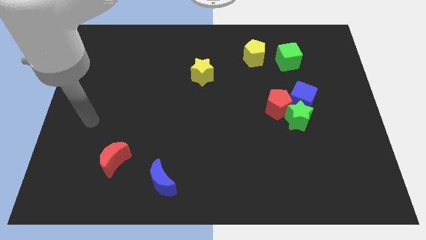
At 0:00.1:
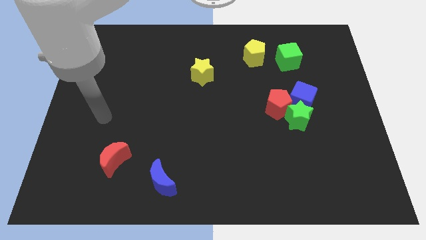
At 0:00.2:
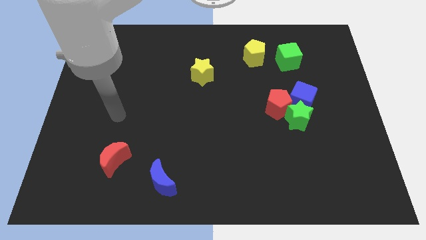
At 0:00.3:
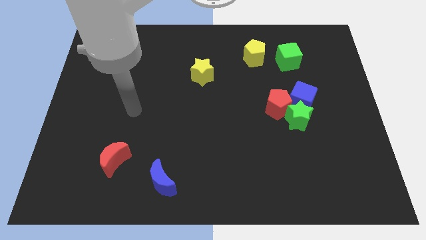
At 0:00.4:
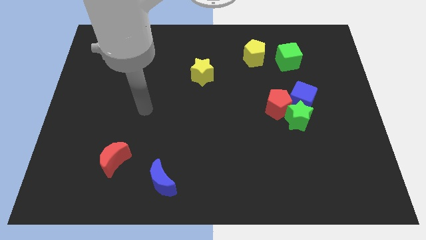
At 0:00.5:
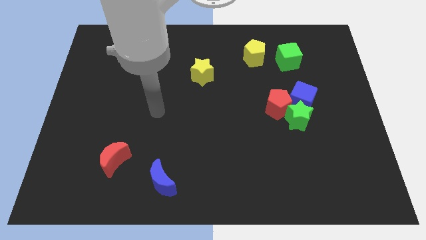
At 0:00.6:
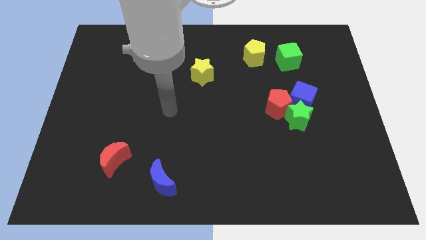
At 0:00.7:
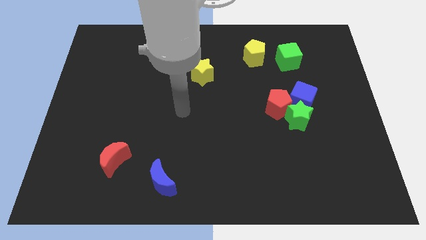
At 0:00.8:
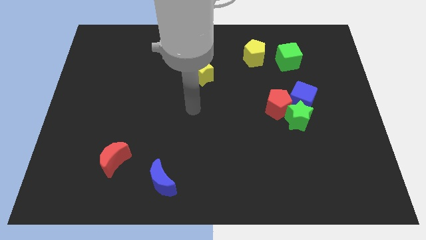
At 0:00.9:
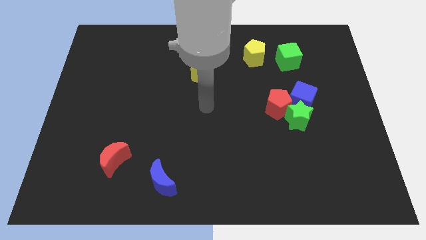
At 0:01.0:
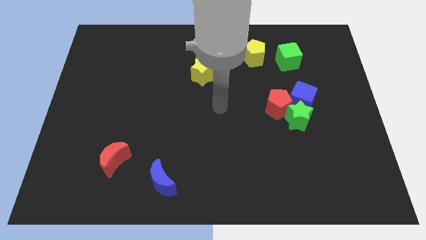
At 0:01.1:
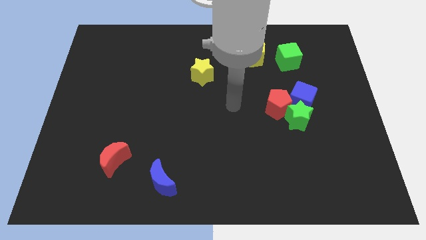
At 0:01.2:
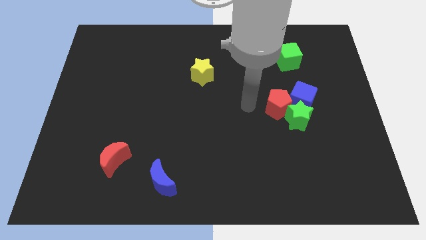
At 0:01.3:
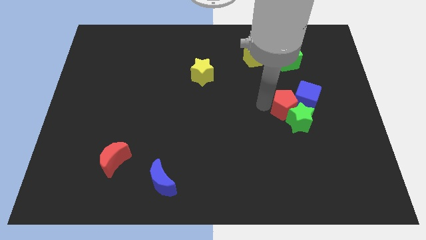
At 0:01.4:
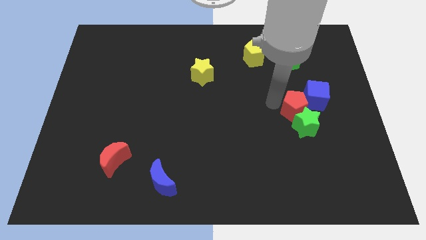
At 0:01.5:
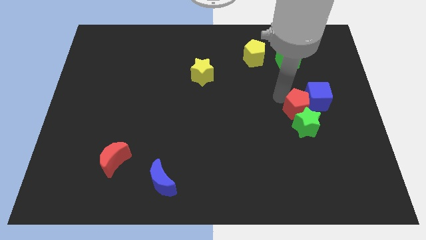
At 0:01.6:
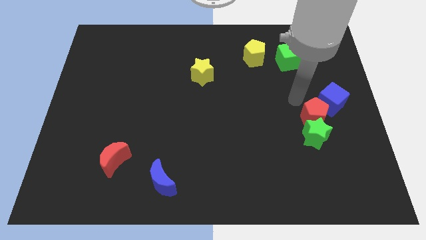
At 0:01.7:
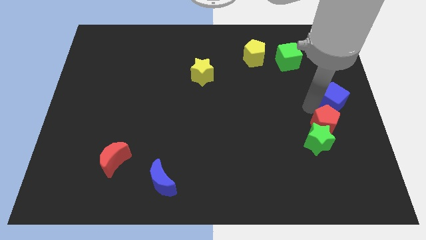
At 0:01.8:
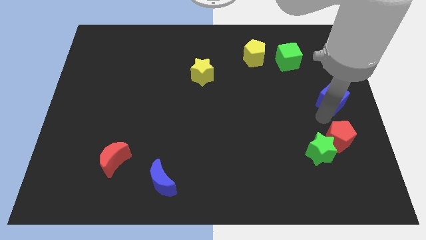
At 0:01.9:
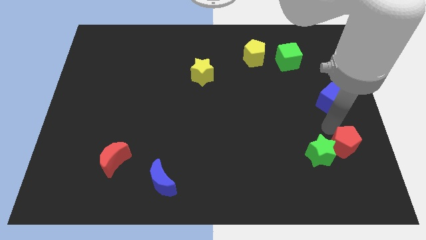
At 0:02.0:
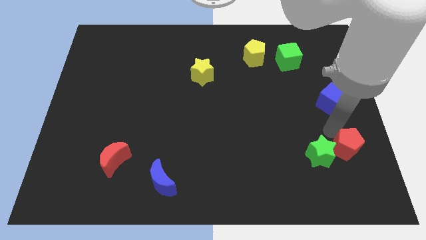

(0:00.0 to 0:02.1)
separate the green star from the red pentagon and blue cube

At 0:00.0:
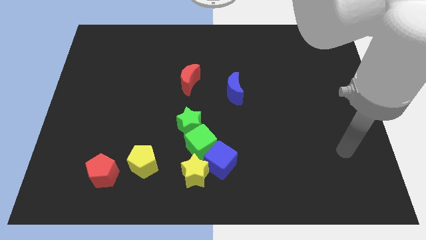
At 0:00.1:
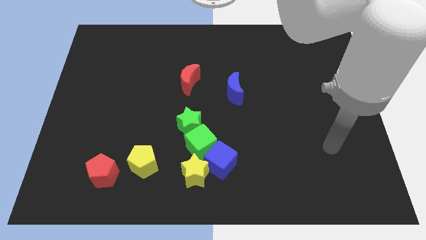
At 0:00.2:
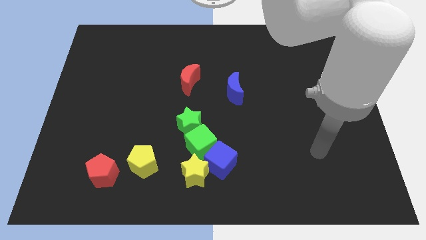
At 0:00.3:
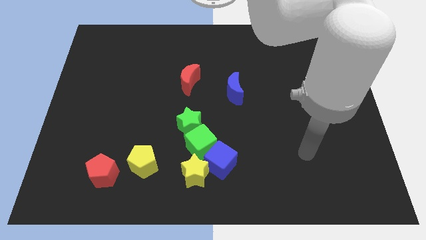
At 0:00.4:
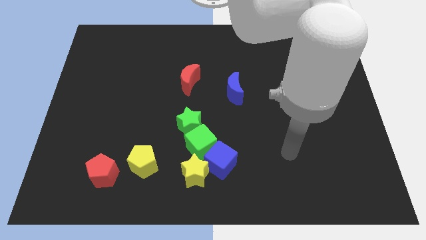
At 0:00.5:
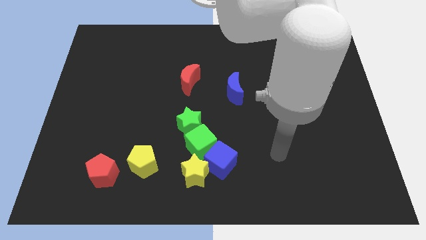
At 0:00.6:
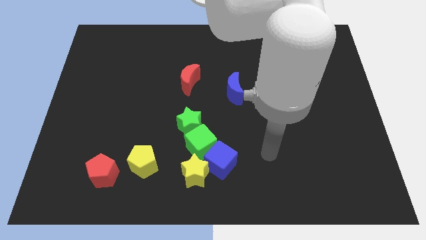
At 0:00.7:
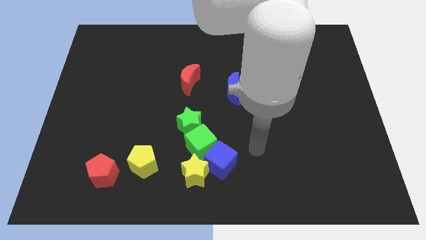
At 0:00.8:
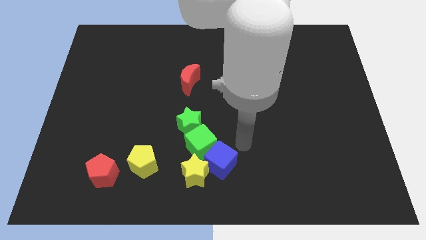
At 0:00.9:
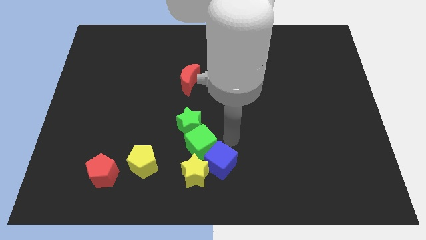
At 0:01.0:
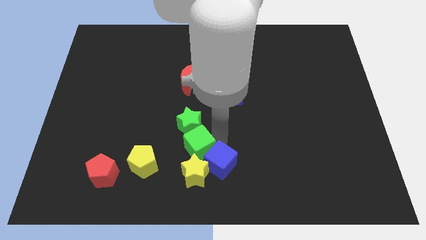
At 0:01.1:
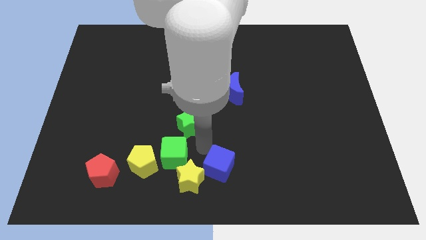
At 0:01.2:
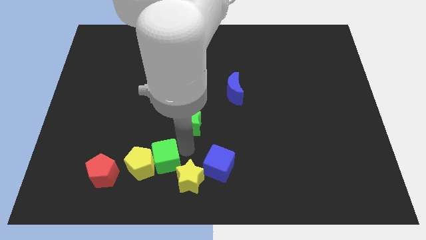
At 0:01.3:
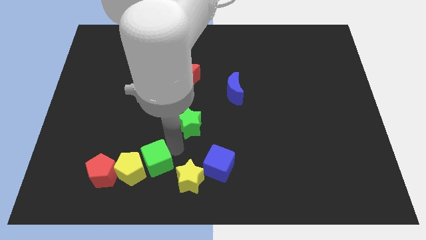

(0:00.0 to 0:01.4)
separate the green star from the green cube

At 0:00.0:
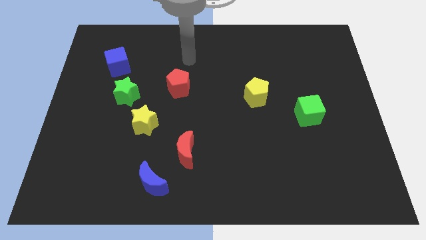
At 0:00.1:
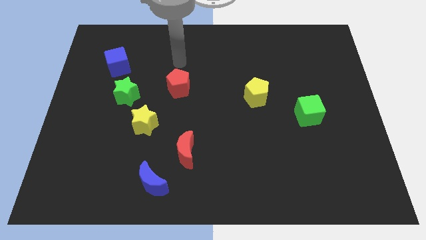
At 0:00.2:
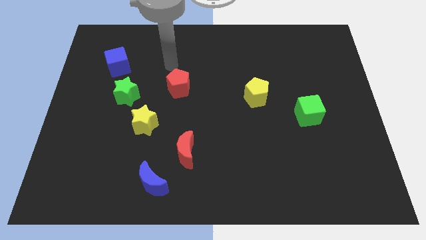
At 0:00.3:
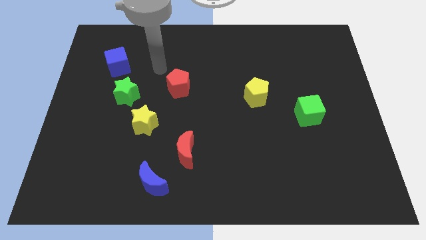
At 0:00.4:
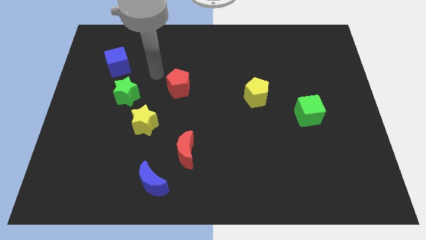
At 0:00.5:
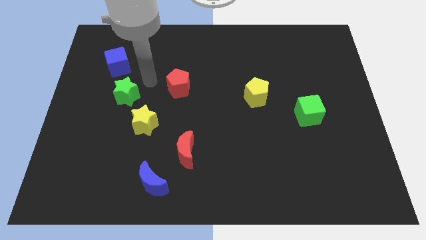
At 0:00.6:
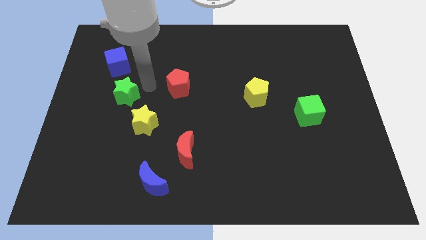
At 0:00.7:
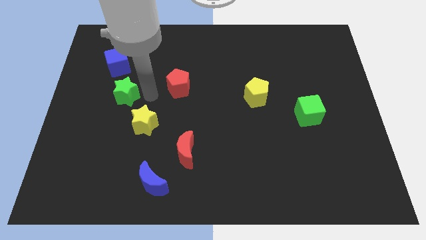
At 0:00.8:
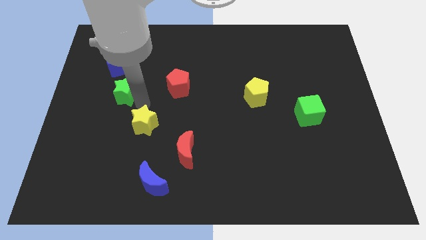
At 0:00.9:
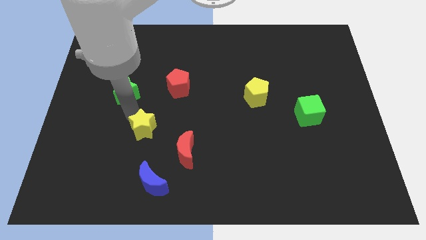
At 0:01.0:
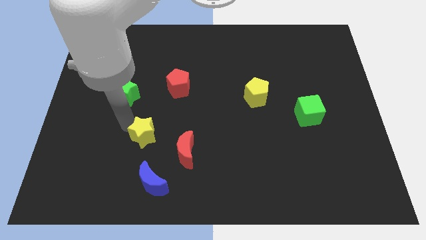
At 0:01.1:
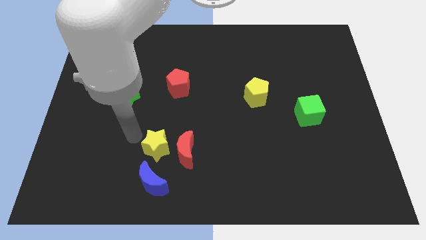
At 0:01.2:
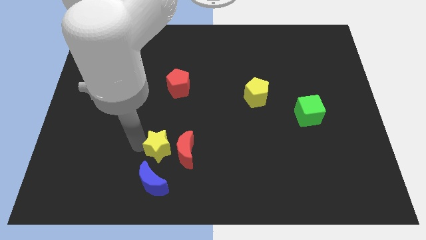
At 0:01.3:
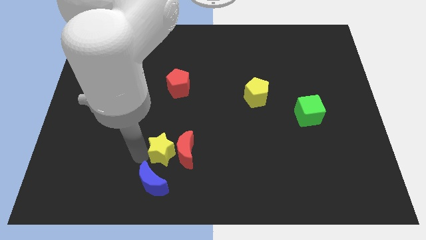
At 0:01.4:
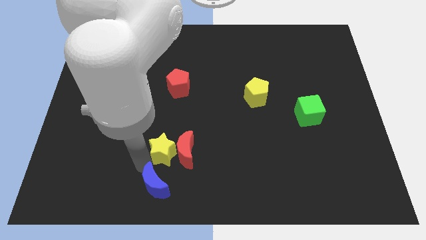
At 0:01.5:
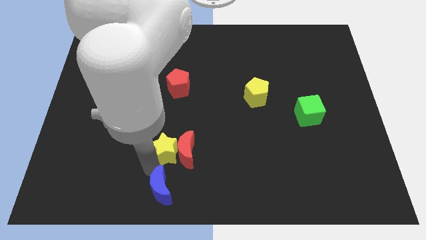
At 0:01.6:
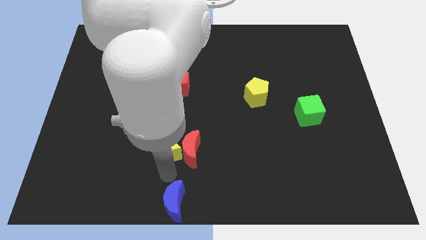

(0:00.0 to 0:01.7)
separate the red moon from the blue moon

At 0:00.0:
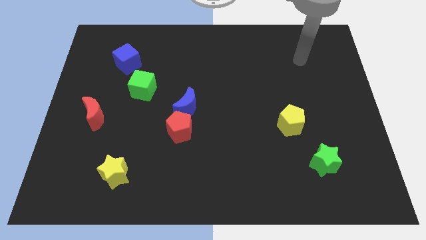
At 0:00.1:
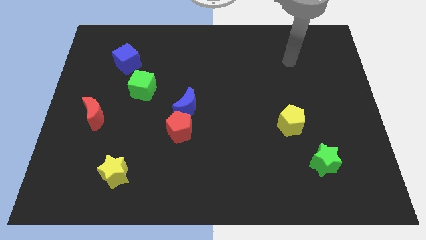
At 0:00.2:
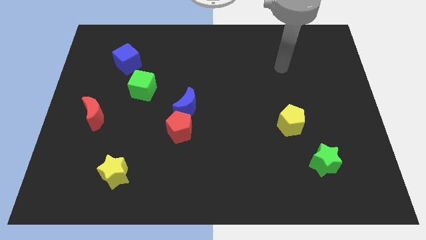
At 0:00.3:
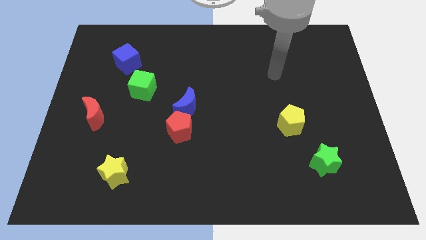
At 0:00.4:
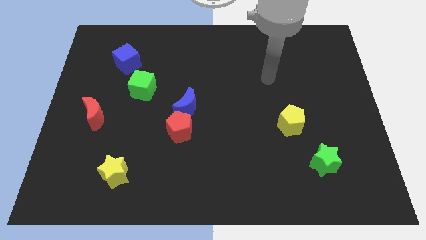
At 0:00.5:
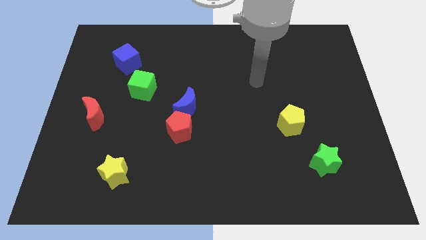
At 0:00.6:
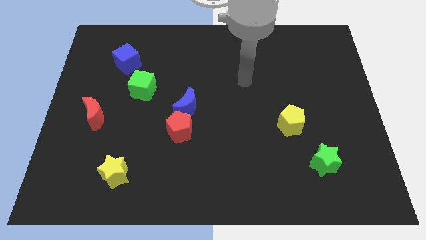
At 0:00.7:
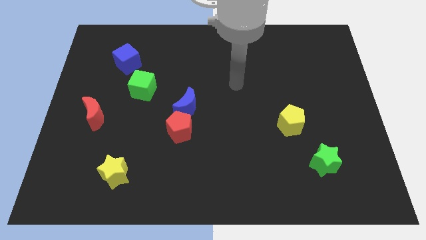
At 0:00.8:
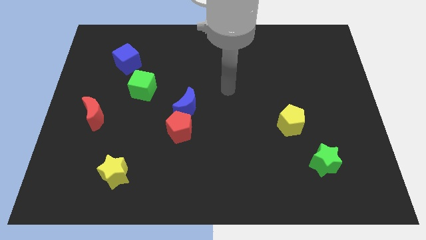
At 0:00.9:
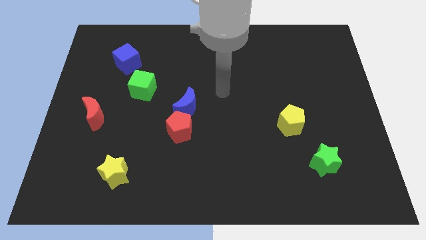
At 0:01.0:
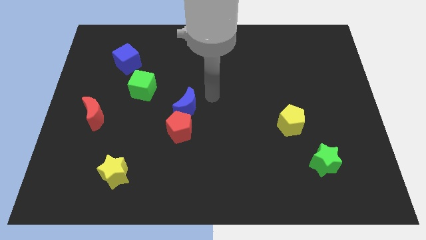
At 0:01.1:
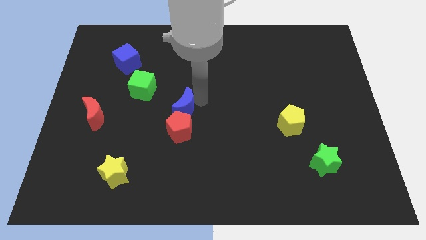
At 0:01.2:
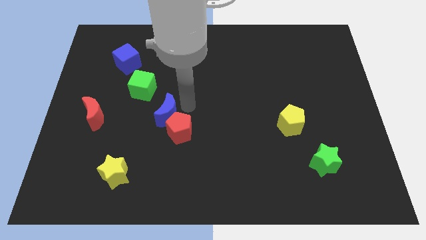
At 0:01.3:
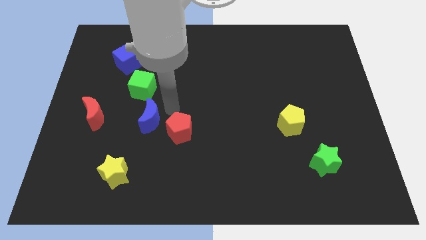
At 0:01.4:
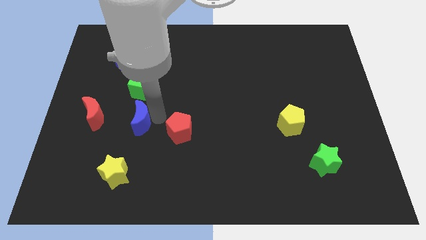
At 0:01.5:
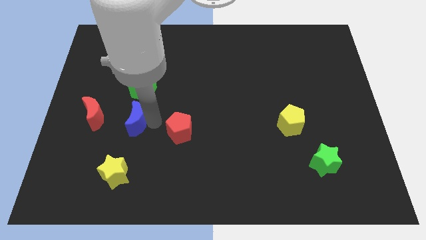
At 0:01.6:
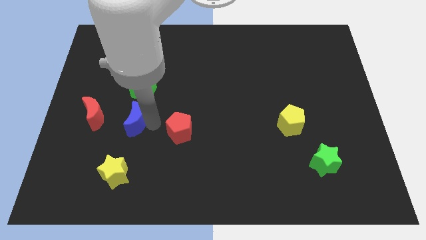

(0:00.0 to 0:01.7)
move the red pentagon away from the blue moon

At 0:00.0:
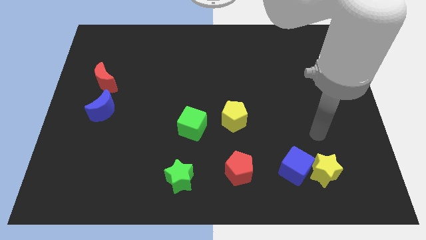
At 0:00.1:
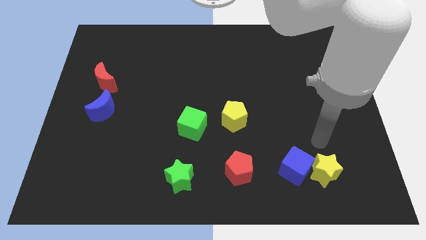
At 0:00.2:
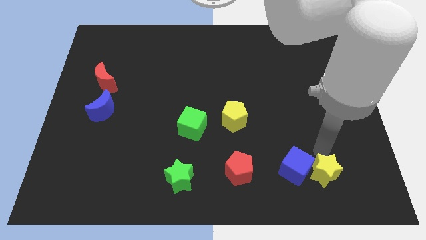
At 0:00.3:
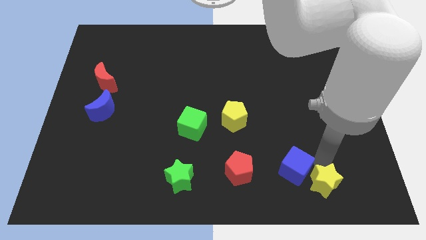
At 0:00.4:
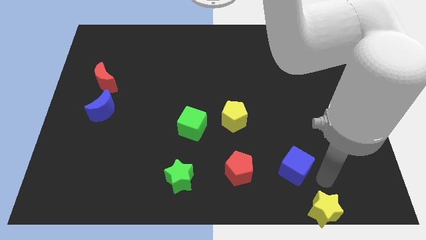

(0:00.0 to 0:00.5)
move the blue cube away from the yellow star

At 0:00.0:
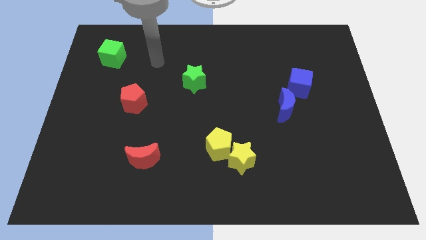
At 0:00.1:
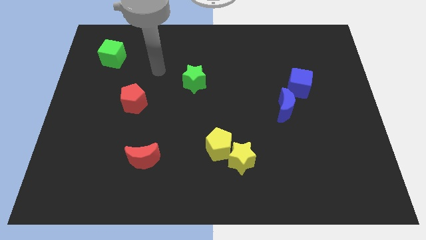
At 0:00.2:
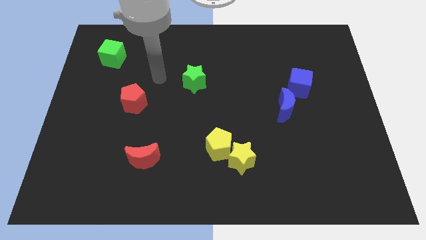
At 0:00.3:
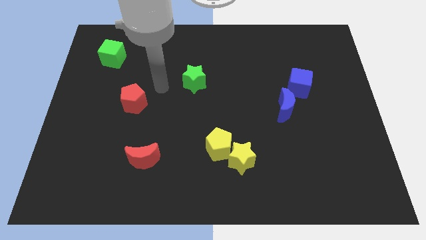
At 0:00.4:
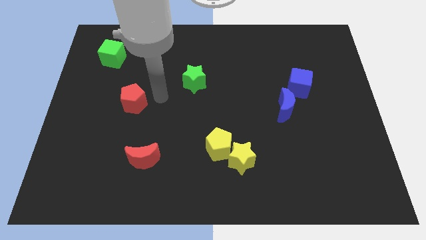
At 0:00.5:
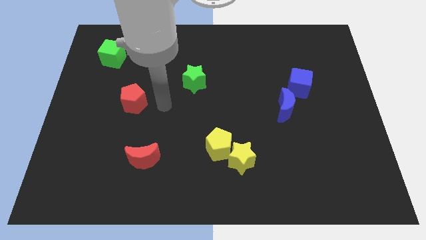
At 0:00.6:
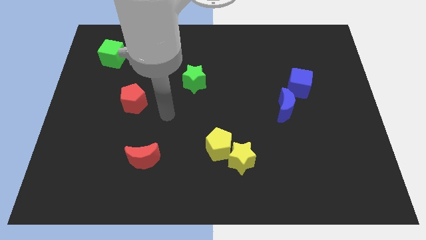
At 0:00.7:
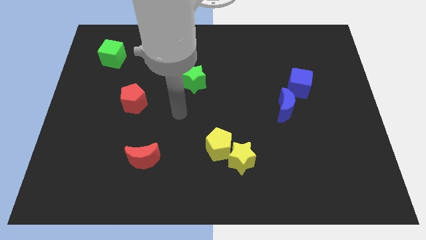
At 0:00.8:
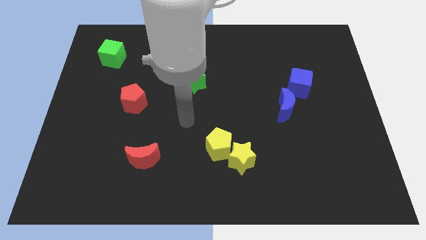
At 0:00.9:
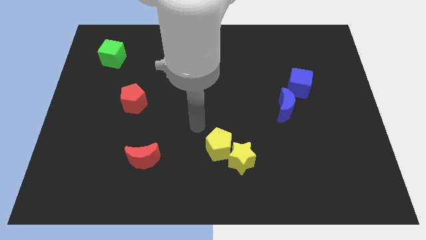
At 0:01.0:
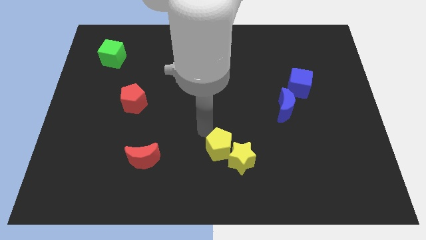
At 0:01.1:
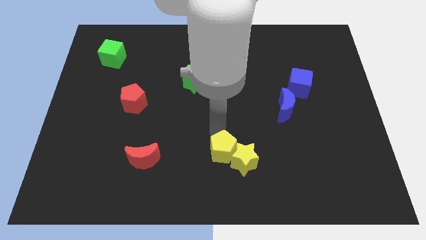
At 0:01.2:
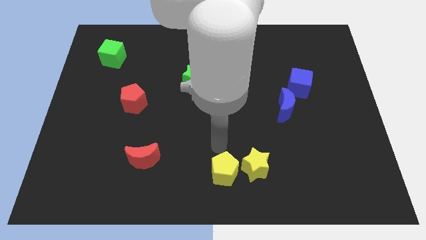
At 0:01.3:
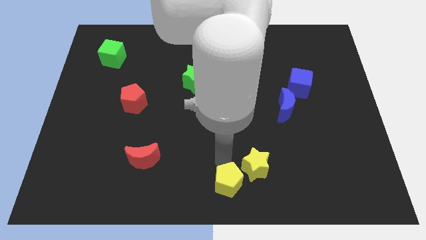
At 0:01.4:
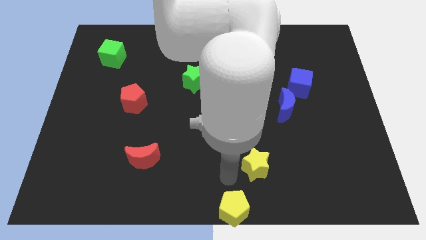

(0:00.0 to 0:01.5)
pull the yellow star apart from the yellow pentagon

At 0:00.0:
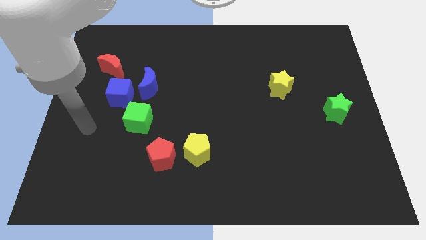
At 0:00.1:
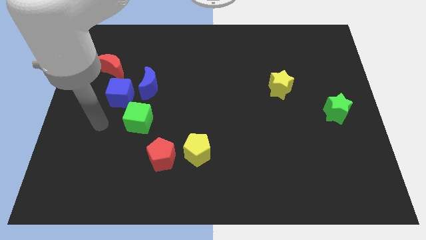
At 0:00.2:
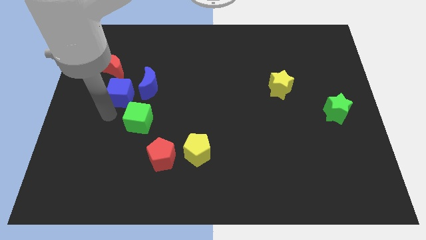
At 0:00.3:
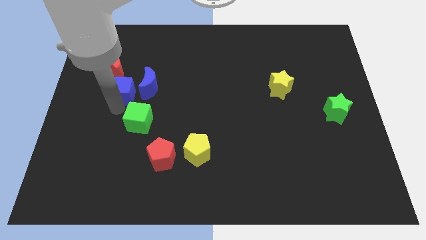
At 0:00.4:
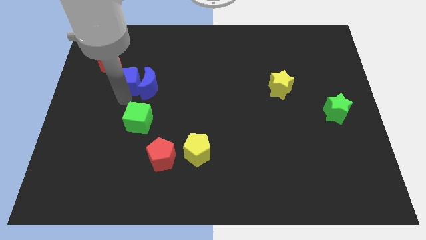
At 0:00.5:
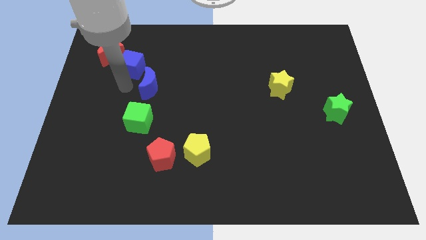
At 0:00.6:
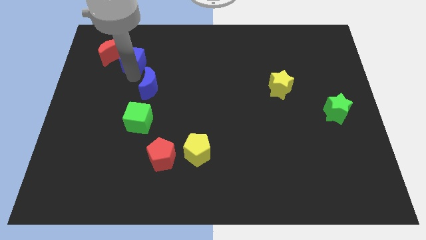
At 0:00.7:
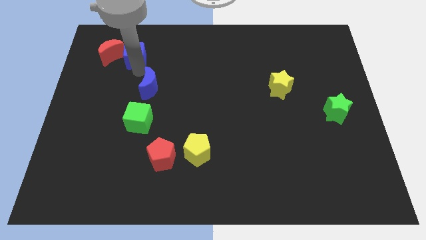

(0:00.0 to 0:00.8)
move the blue moon away from the blue cube
